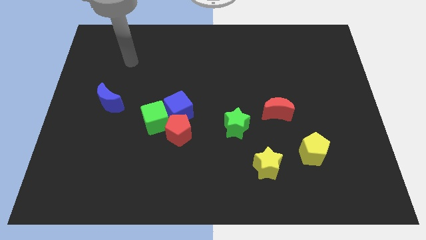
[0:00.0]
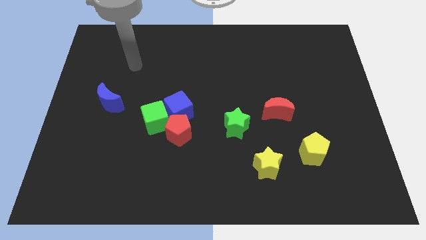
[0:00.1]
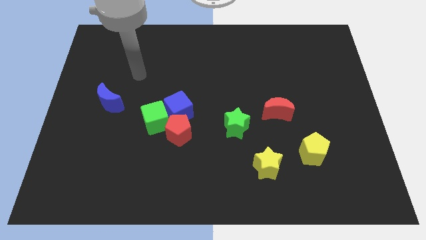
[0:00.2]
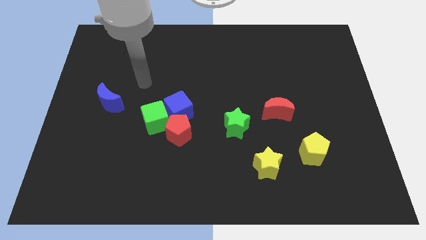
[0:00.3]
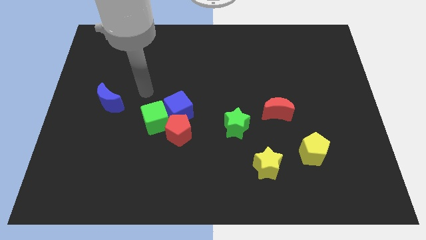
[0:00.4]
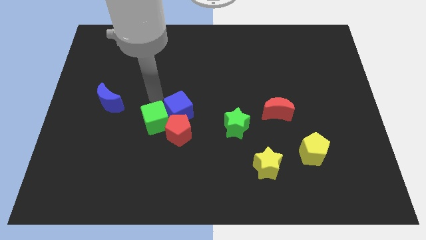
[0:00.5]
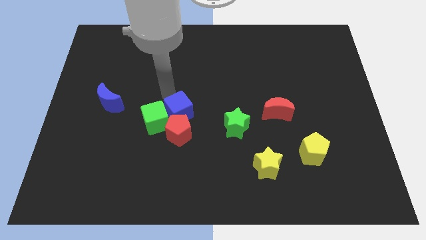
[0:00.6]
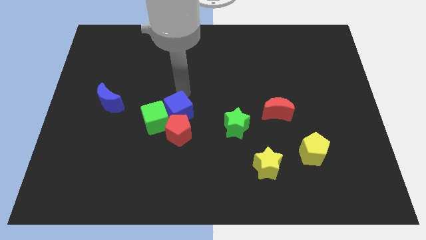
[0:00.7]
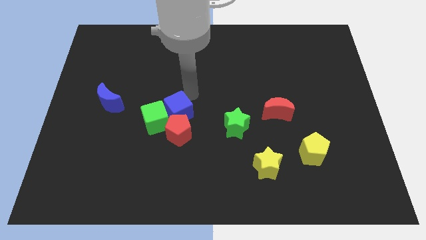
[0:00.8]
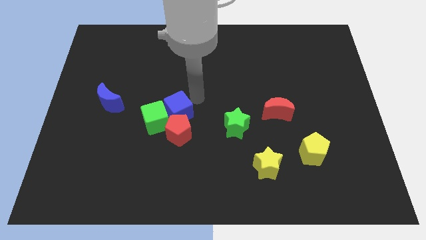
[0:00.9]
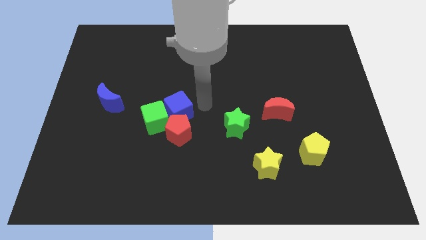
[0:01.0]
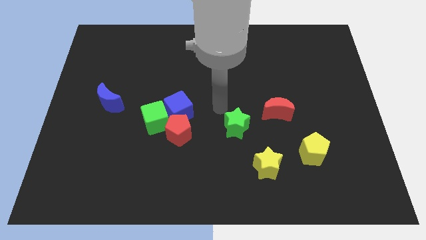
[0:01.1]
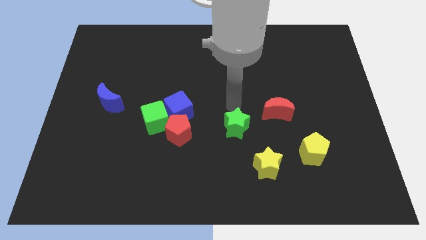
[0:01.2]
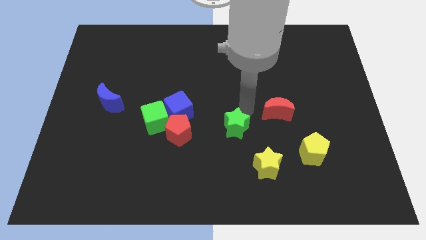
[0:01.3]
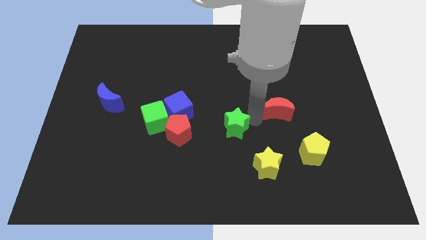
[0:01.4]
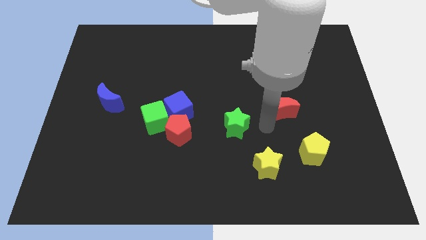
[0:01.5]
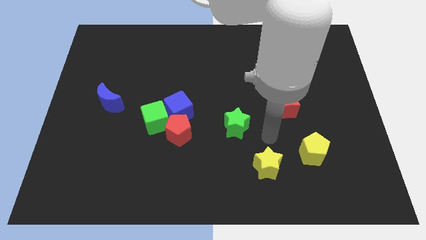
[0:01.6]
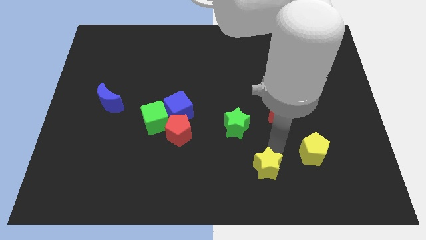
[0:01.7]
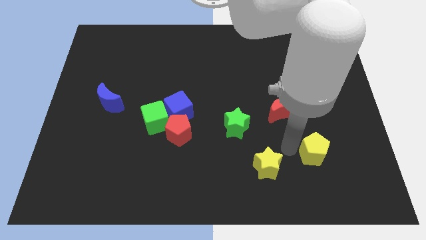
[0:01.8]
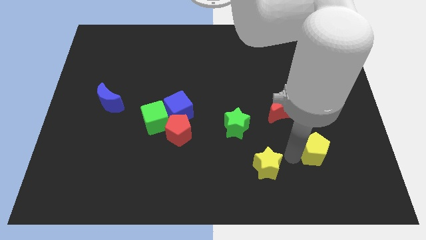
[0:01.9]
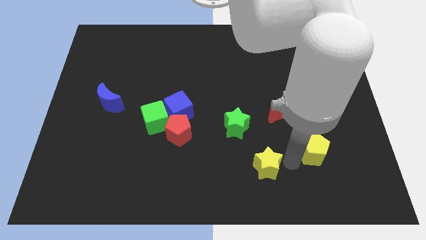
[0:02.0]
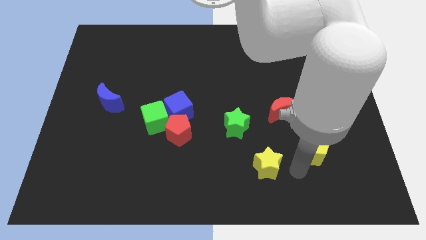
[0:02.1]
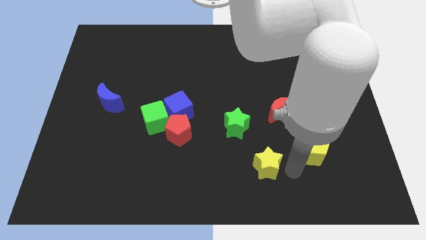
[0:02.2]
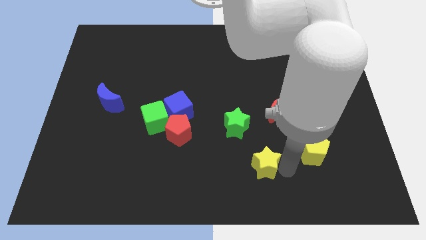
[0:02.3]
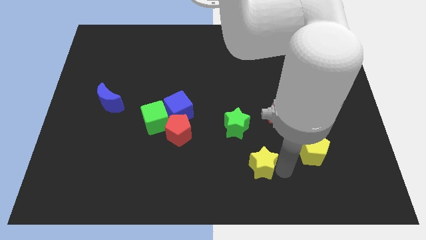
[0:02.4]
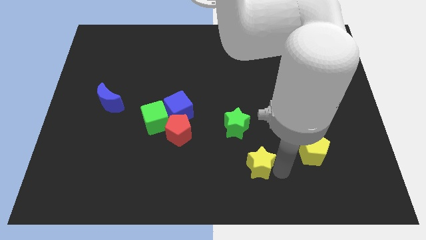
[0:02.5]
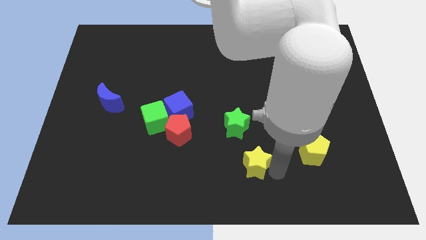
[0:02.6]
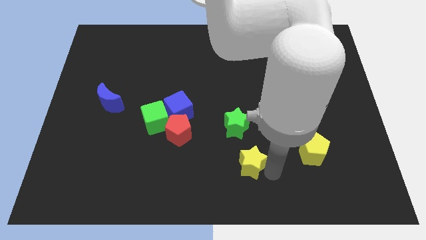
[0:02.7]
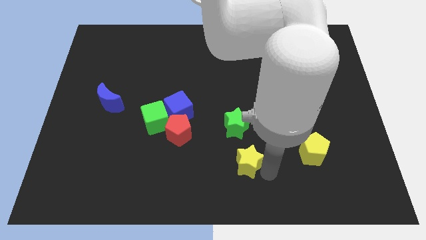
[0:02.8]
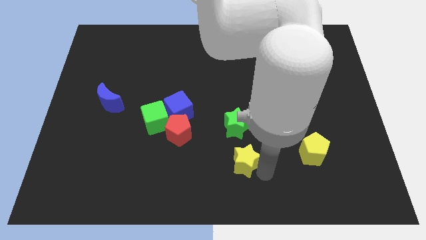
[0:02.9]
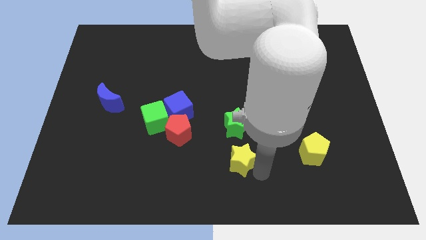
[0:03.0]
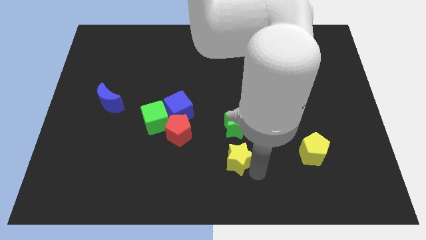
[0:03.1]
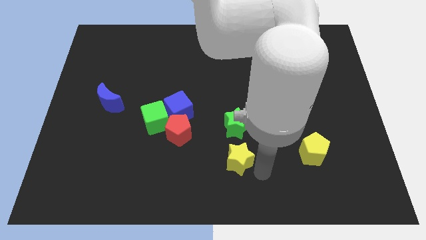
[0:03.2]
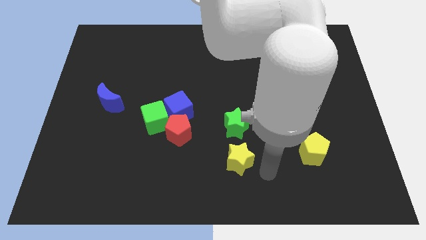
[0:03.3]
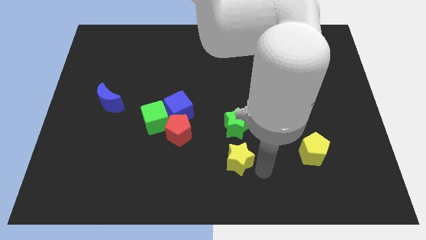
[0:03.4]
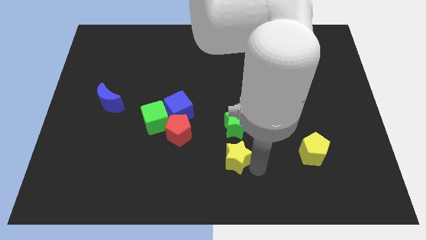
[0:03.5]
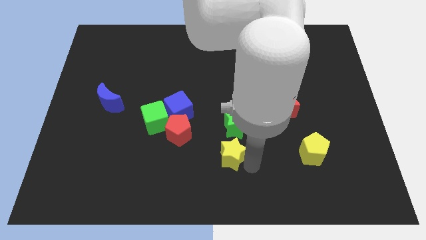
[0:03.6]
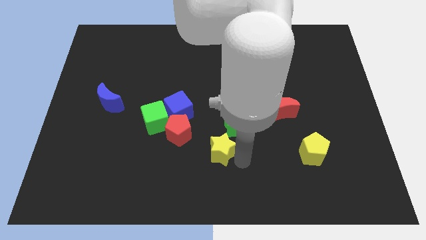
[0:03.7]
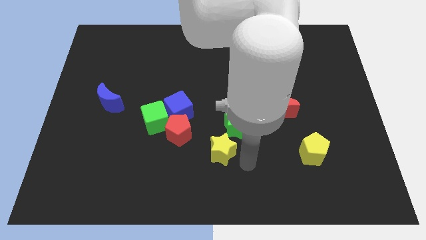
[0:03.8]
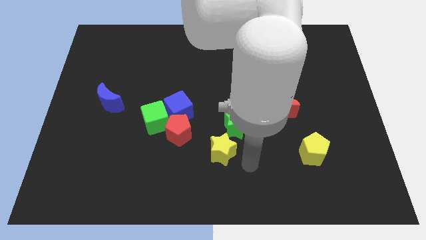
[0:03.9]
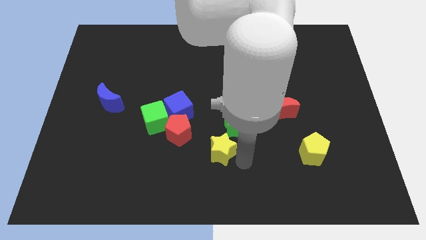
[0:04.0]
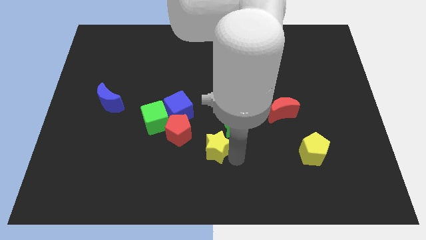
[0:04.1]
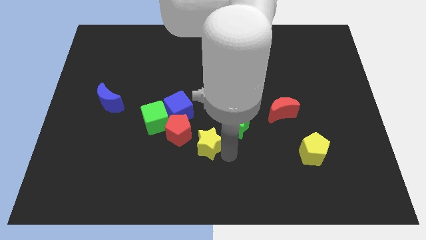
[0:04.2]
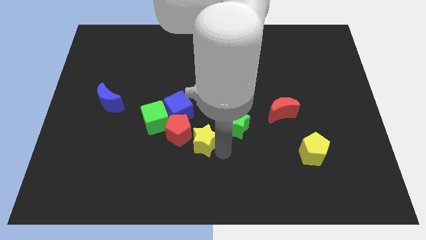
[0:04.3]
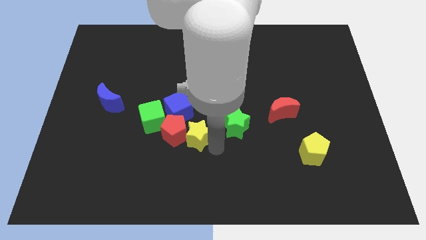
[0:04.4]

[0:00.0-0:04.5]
move the yellow star next to the red pentagon

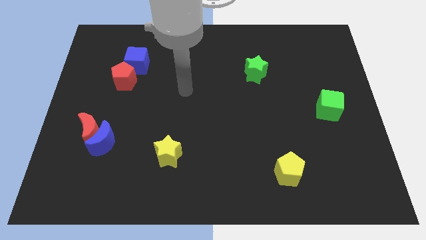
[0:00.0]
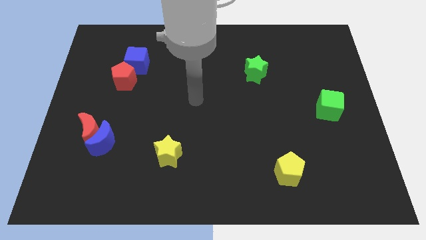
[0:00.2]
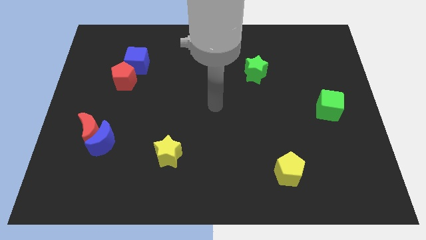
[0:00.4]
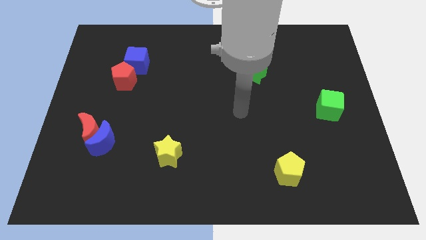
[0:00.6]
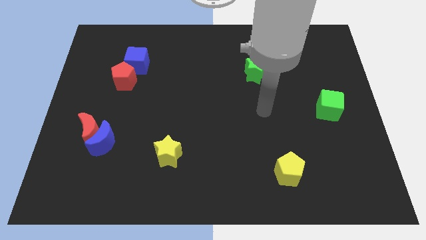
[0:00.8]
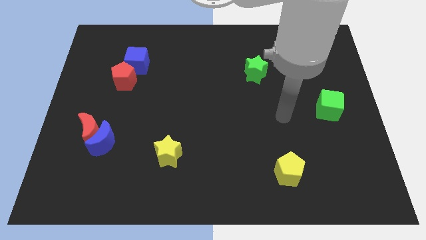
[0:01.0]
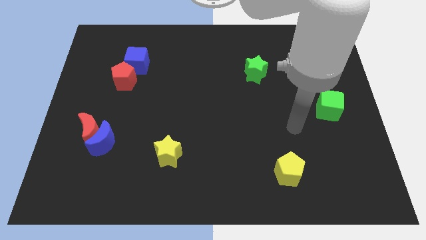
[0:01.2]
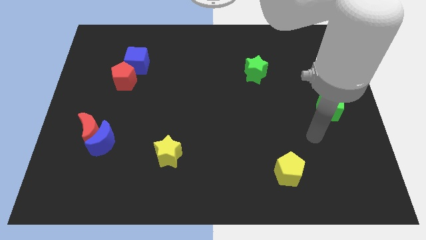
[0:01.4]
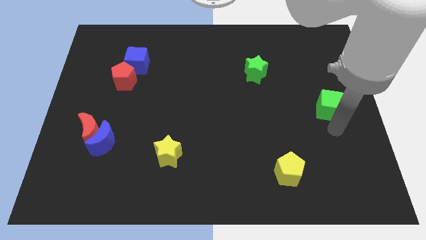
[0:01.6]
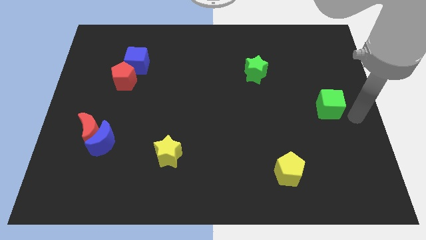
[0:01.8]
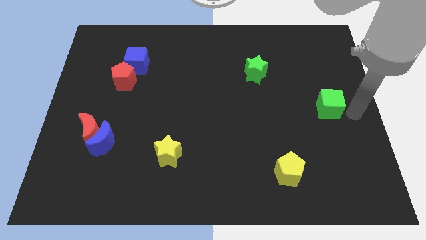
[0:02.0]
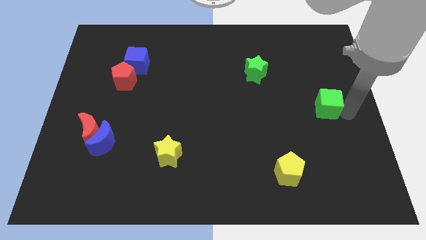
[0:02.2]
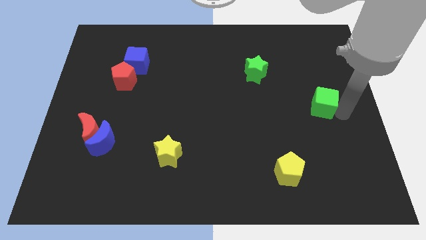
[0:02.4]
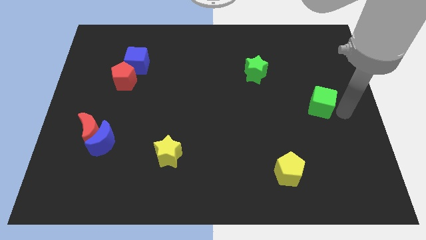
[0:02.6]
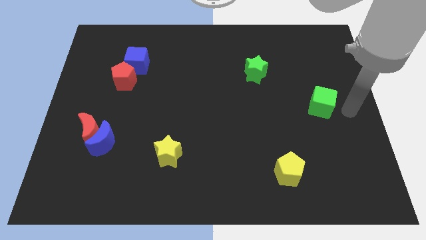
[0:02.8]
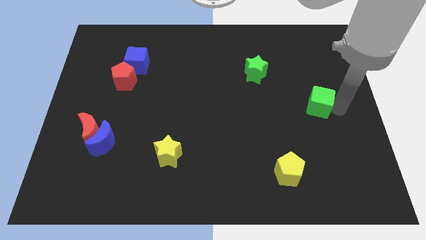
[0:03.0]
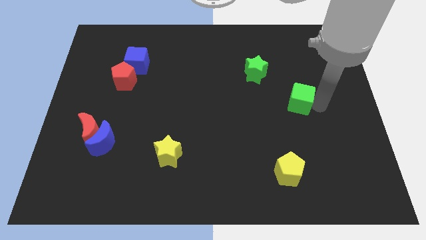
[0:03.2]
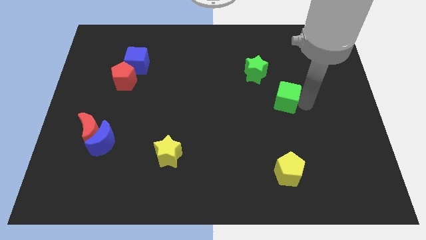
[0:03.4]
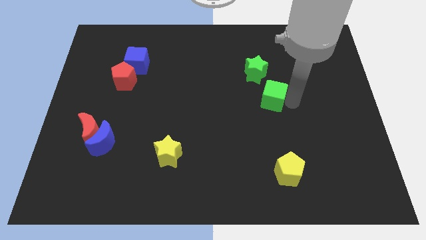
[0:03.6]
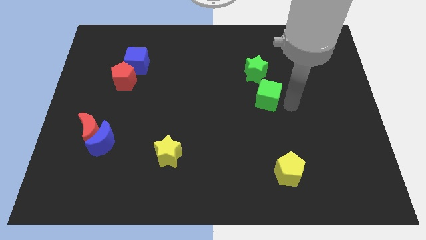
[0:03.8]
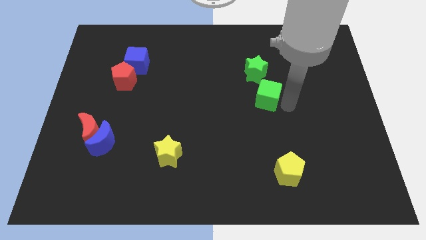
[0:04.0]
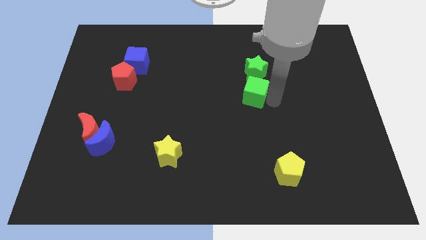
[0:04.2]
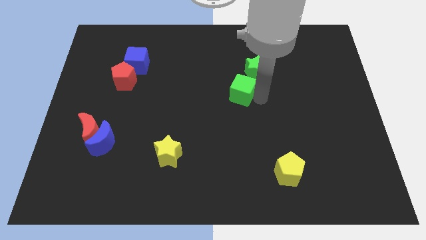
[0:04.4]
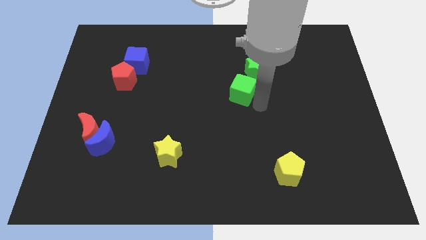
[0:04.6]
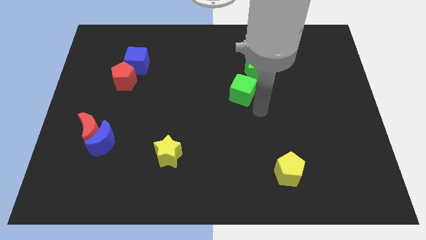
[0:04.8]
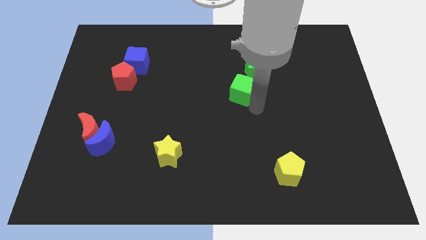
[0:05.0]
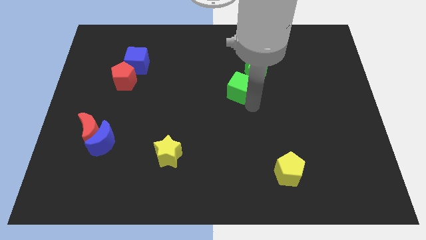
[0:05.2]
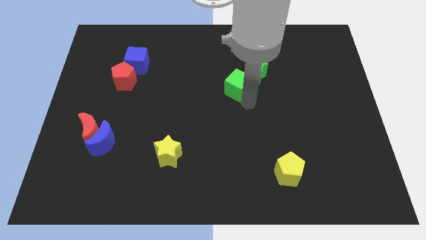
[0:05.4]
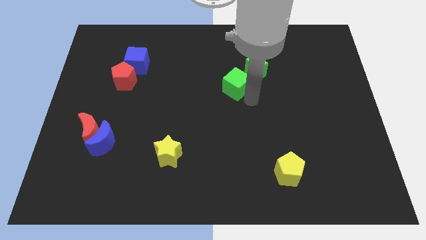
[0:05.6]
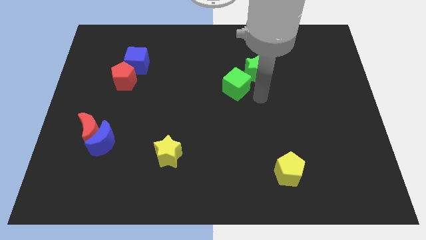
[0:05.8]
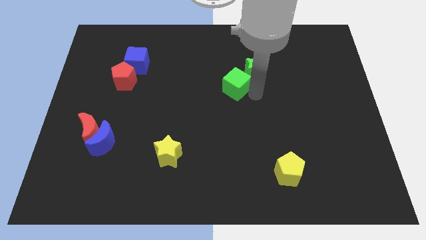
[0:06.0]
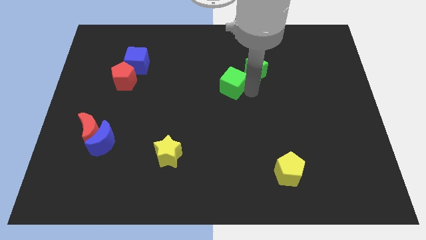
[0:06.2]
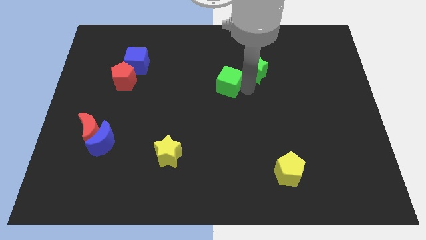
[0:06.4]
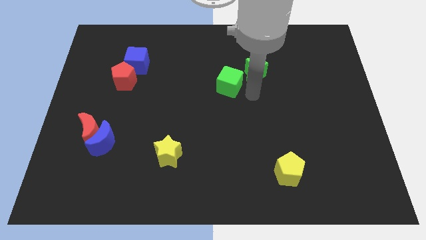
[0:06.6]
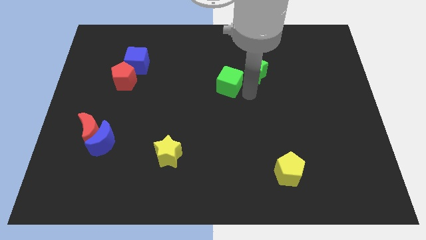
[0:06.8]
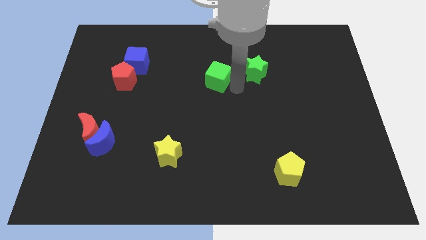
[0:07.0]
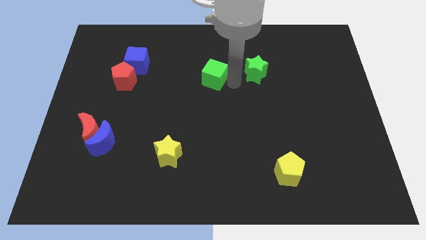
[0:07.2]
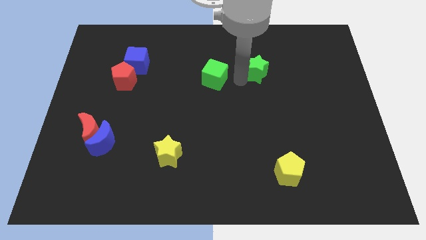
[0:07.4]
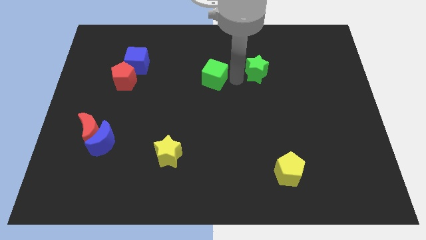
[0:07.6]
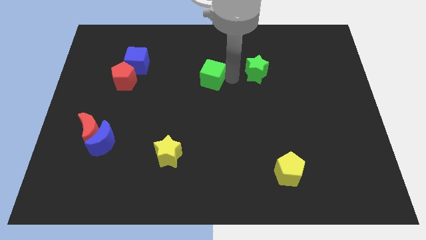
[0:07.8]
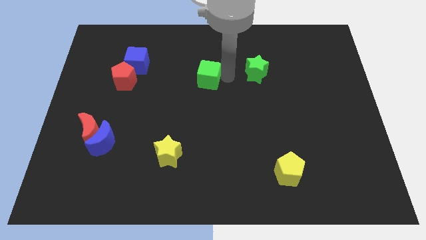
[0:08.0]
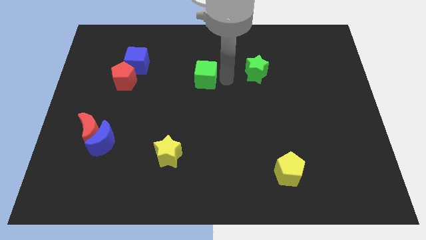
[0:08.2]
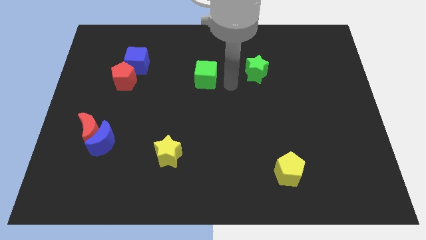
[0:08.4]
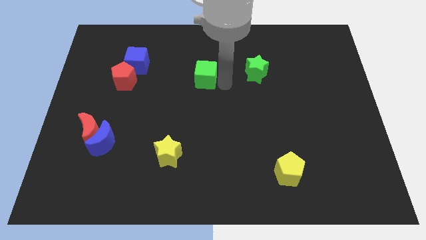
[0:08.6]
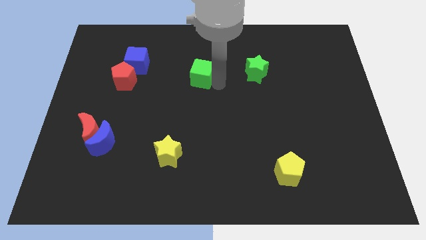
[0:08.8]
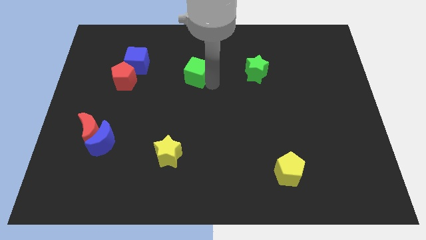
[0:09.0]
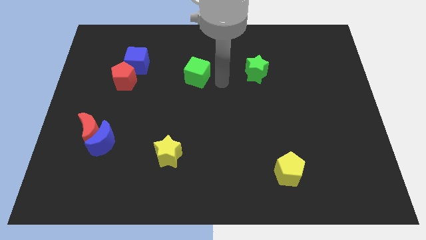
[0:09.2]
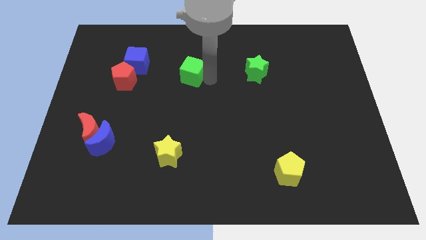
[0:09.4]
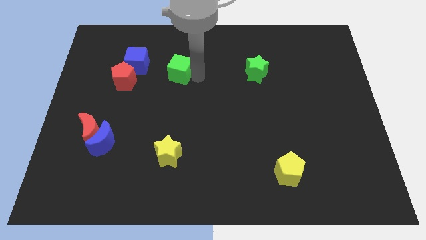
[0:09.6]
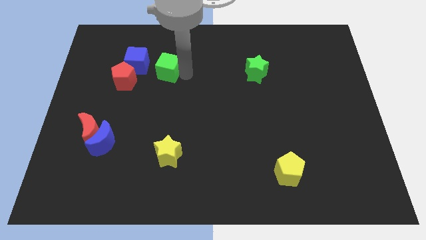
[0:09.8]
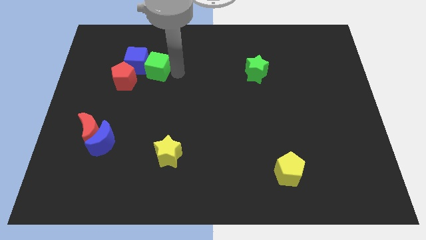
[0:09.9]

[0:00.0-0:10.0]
push the green cube next to the blue cube
